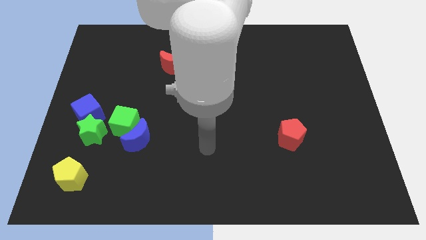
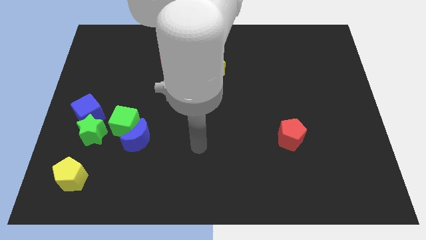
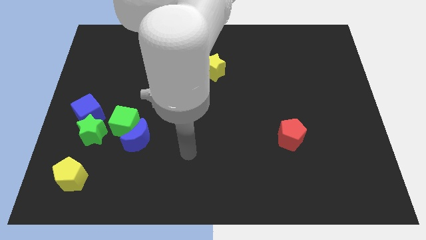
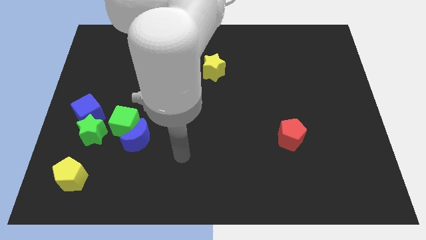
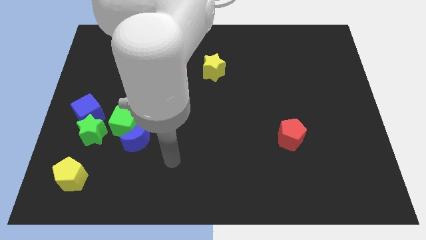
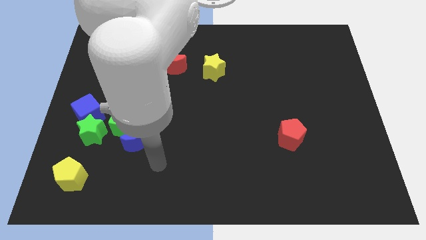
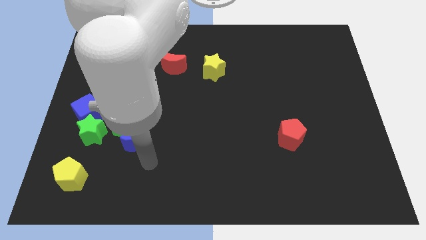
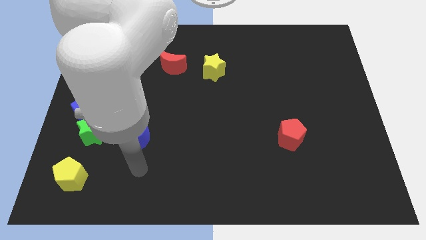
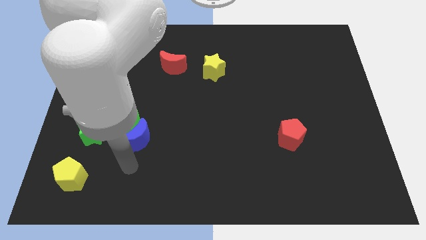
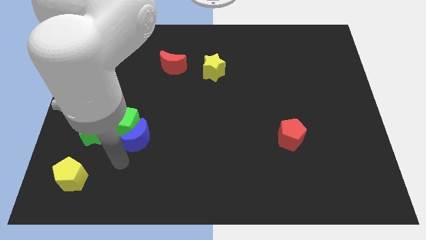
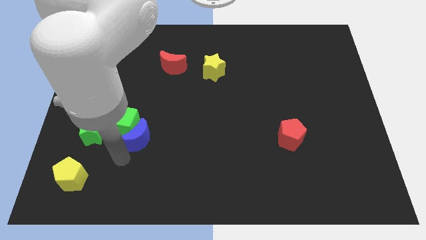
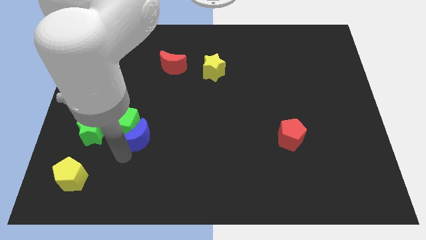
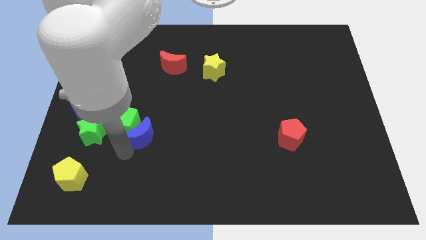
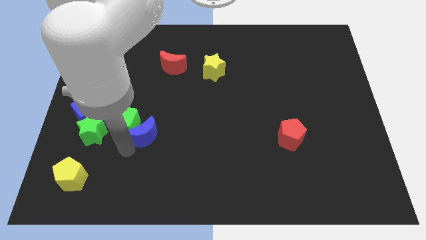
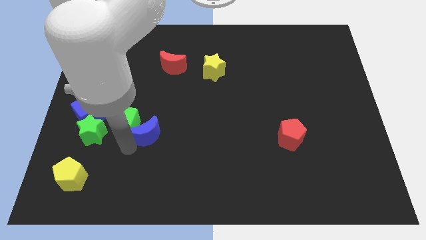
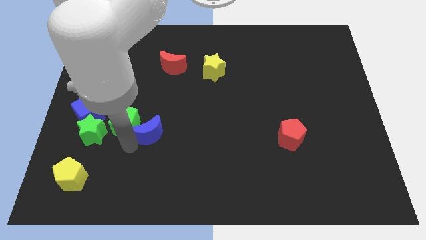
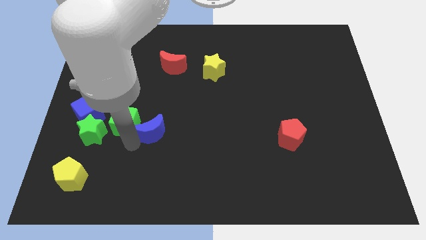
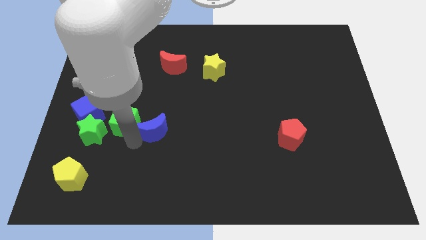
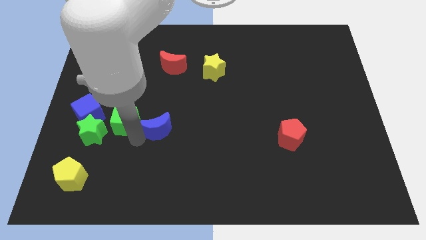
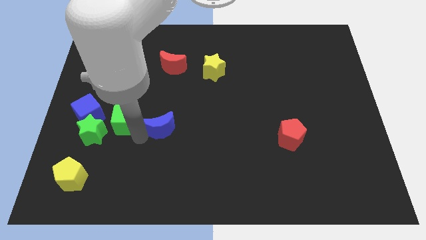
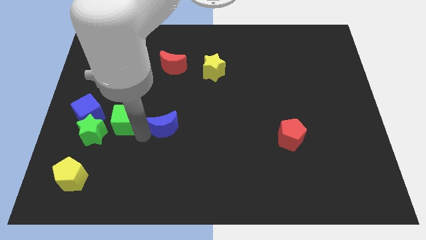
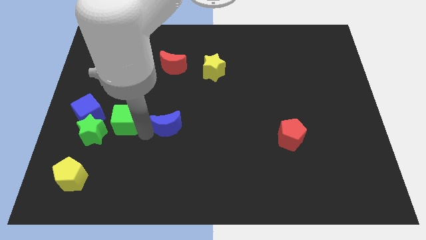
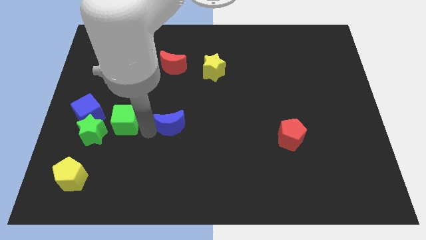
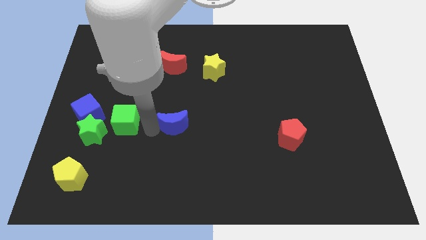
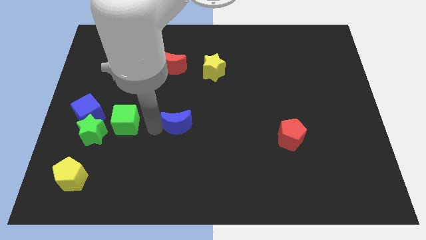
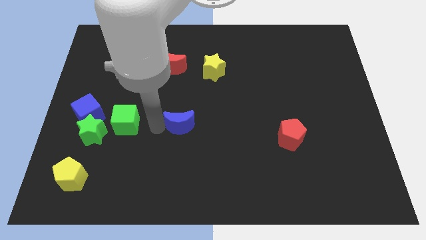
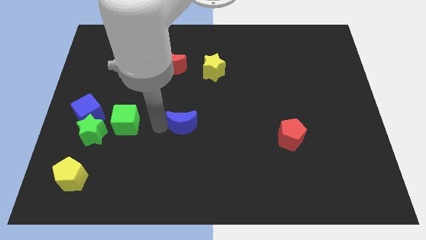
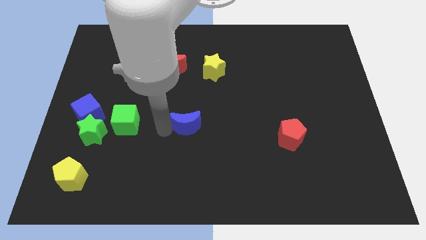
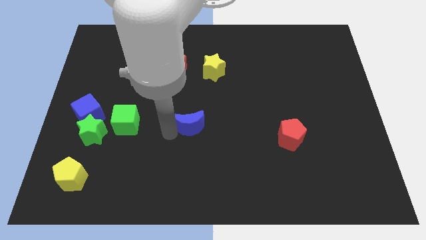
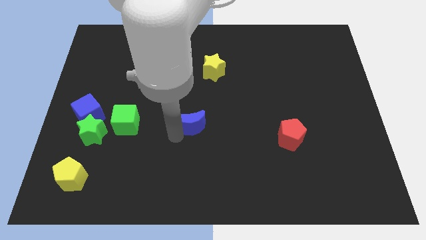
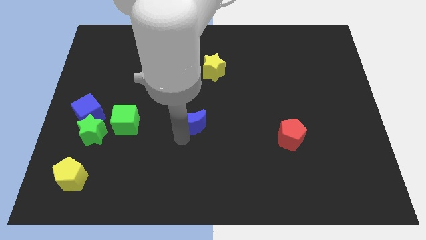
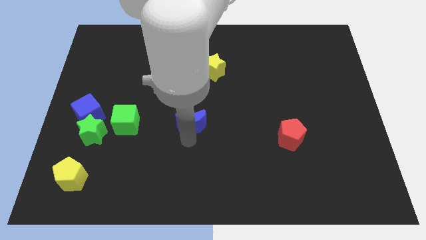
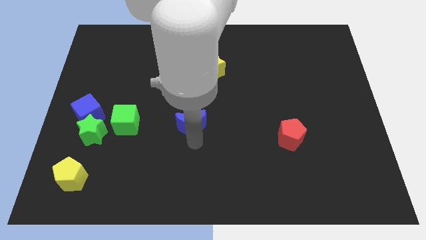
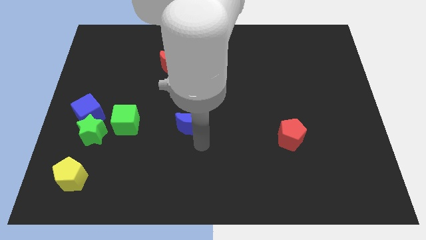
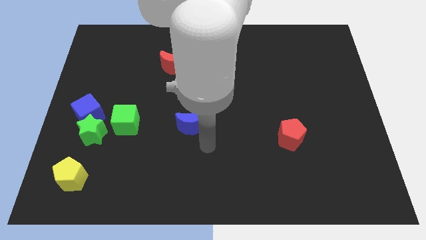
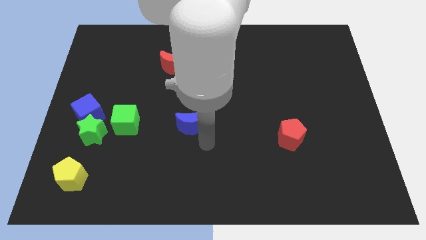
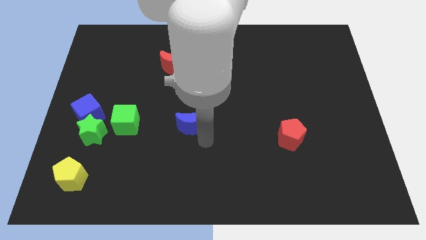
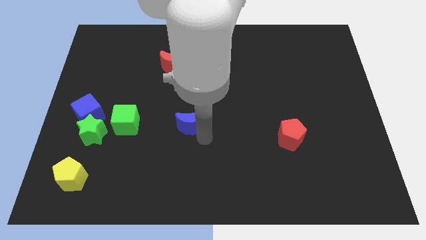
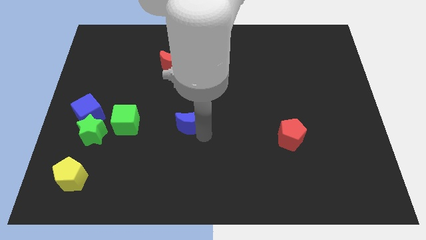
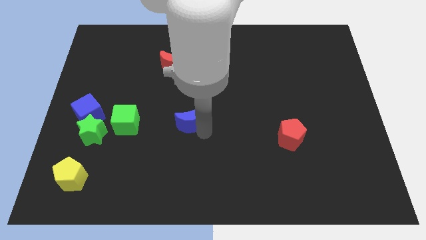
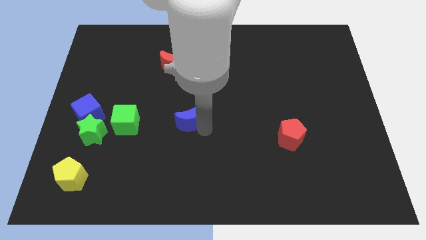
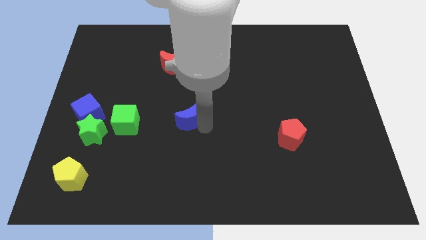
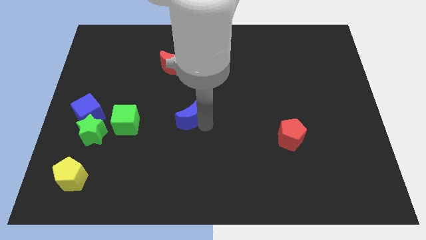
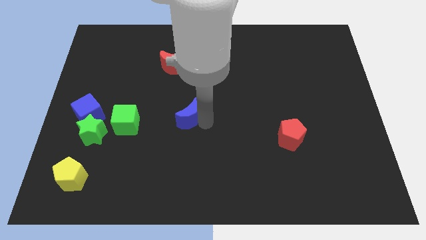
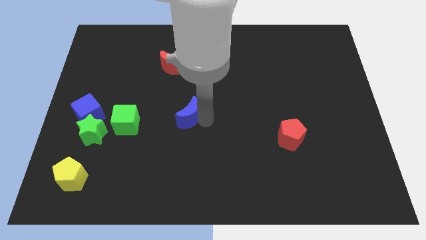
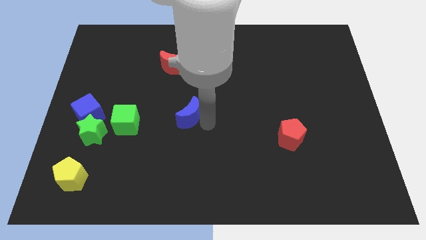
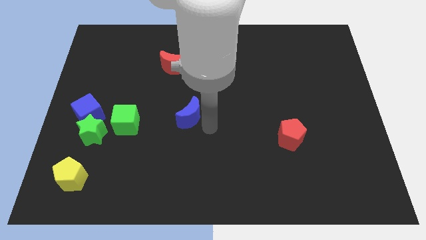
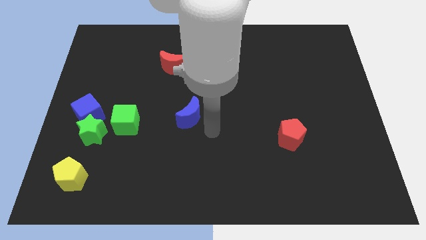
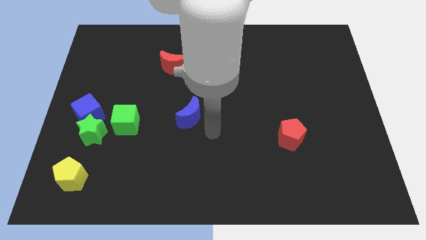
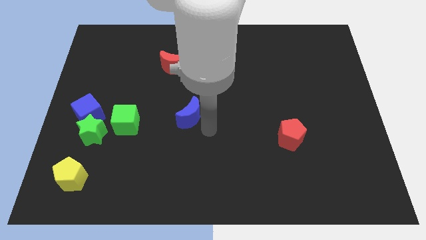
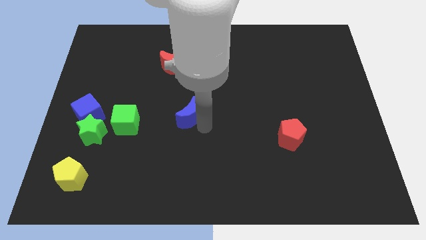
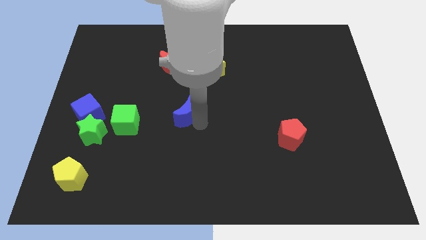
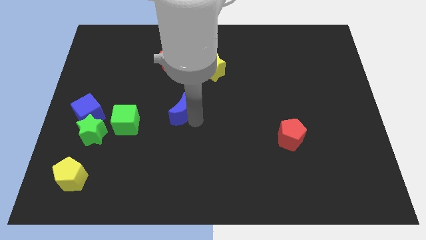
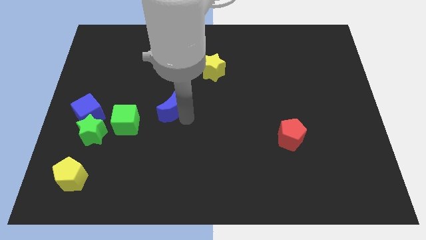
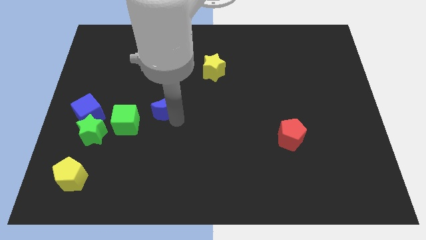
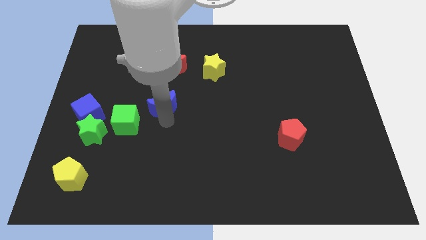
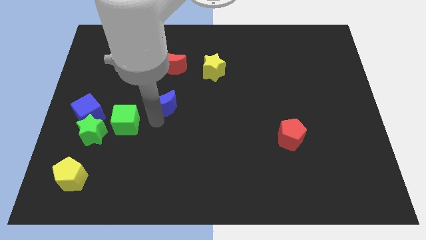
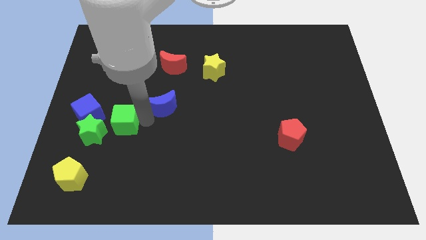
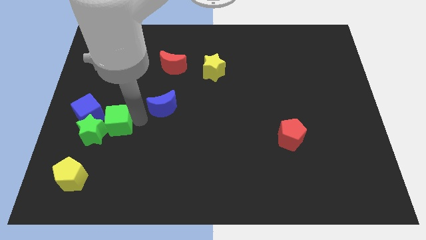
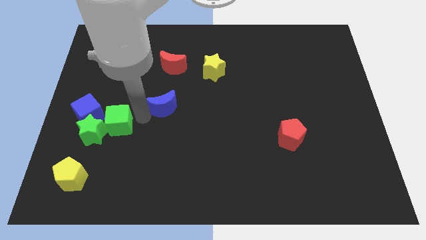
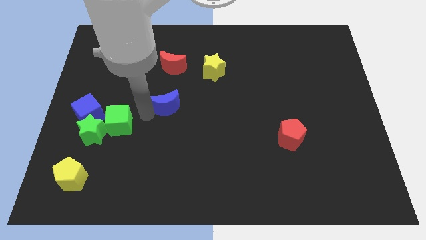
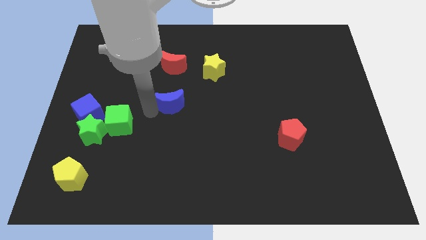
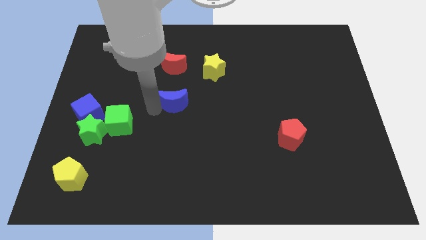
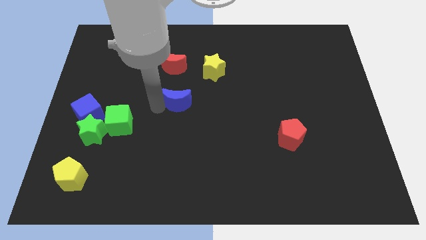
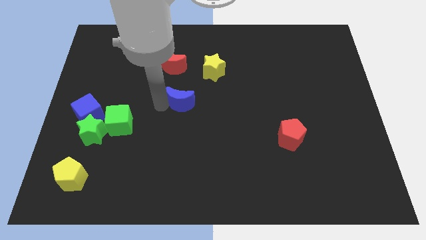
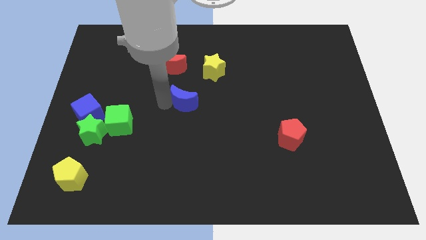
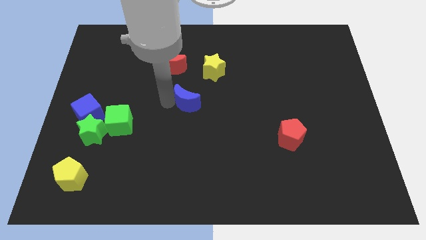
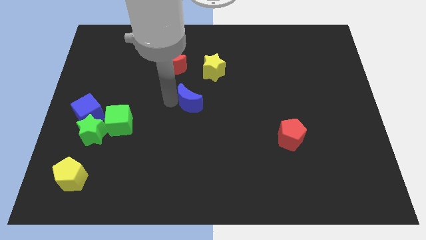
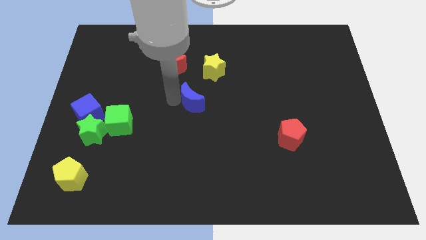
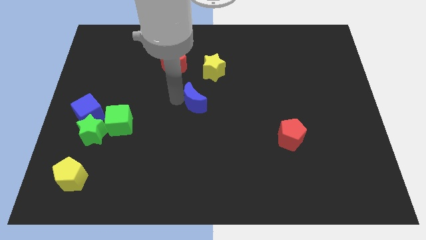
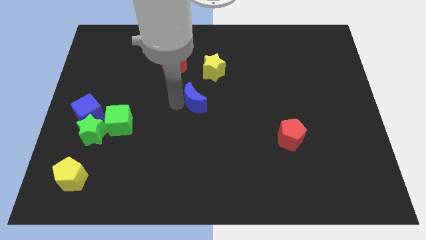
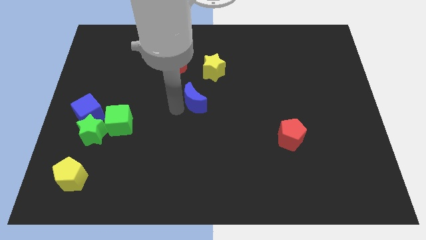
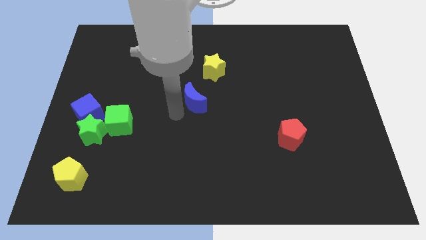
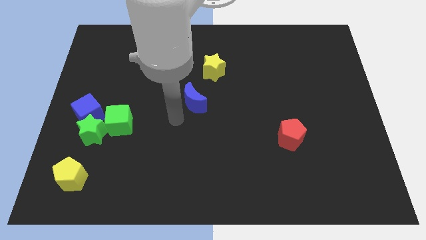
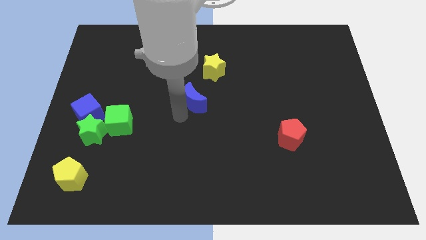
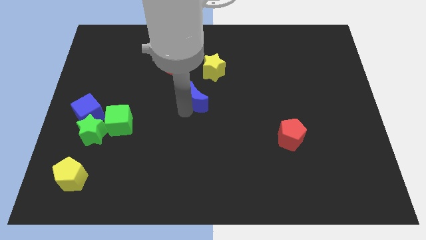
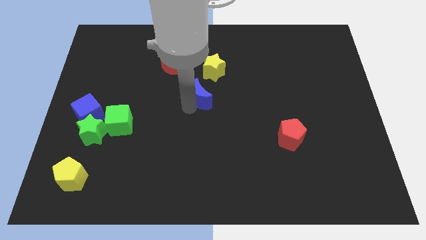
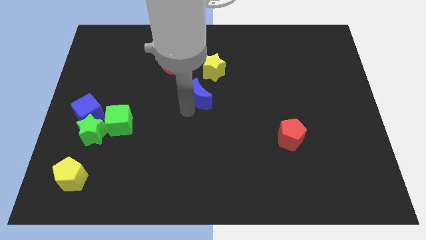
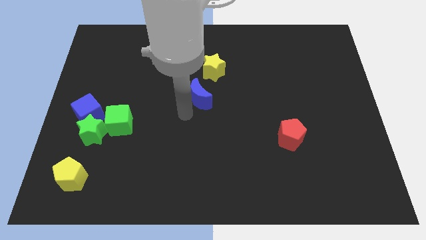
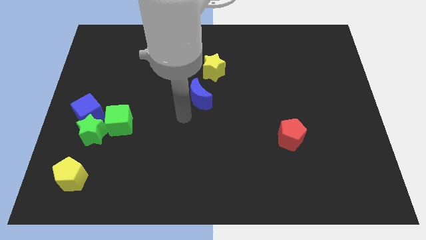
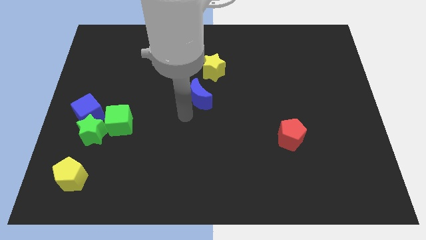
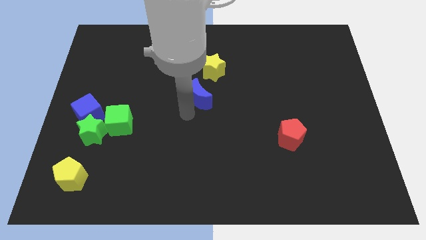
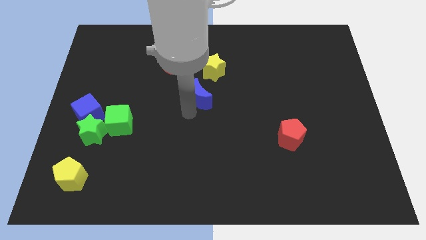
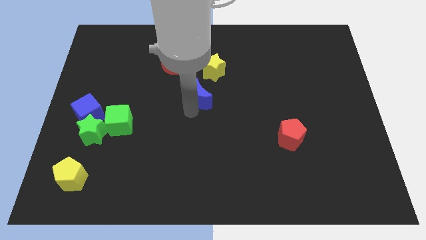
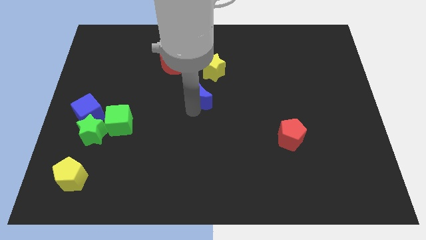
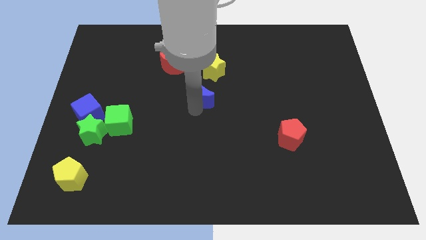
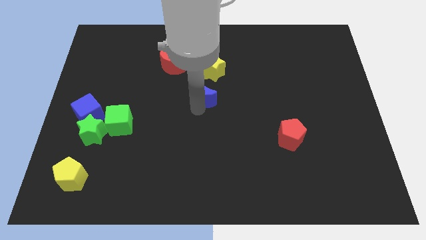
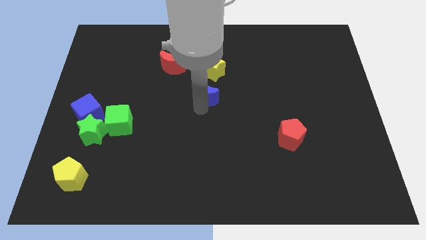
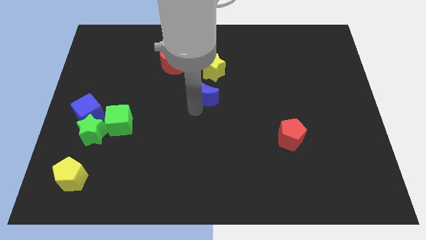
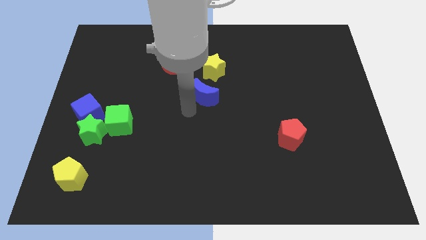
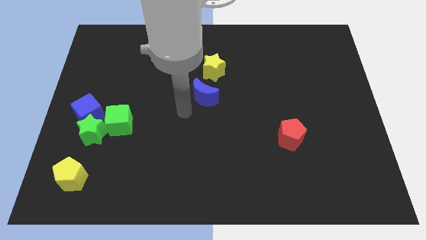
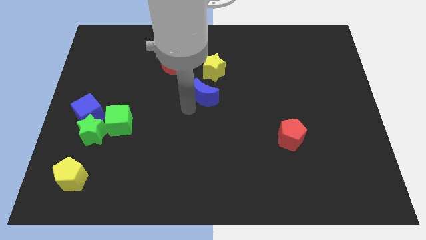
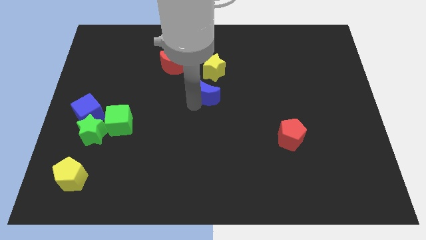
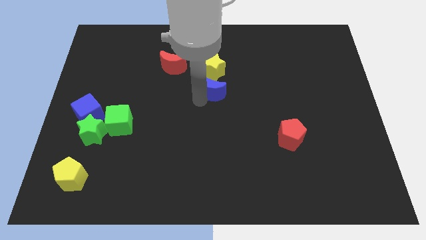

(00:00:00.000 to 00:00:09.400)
move the blue moon upwards and then right
